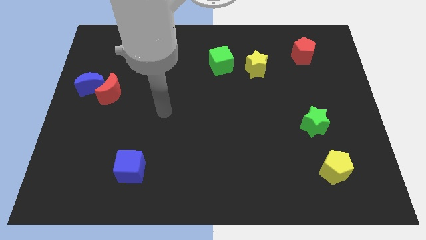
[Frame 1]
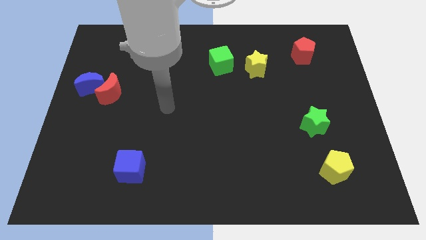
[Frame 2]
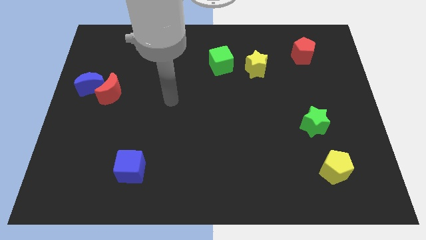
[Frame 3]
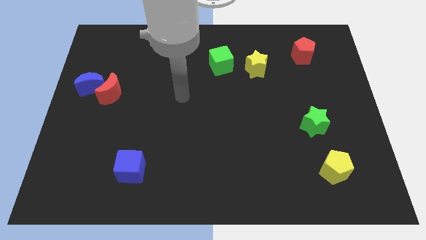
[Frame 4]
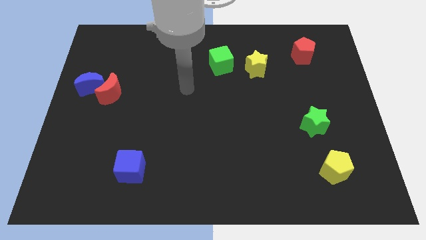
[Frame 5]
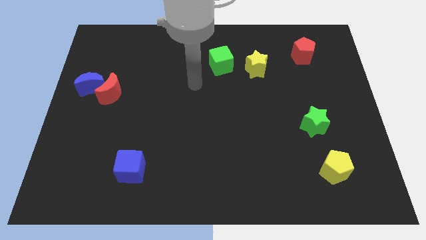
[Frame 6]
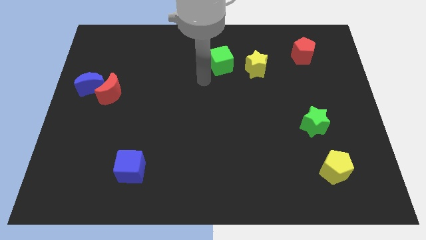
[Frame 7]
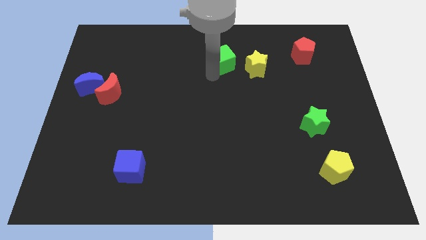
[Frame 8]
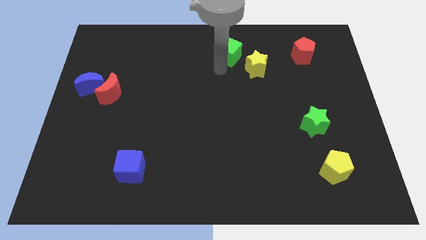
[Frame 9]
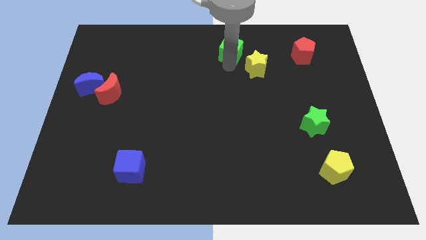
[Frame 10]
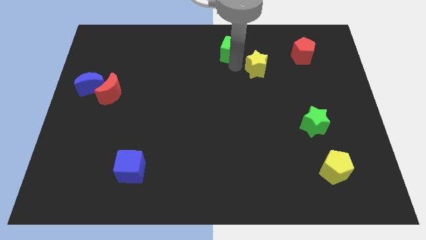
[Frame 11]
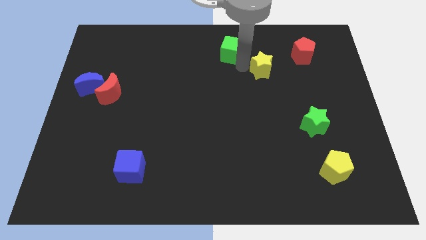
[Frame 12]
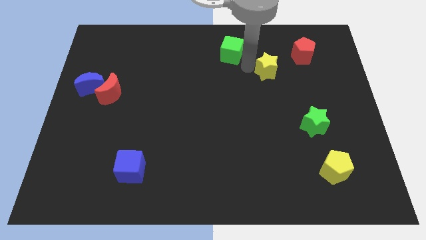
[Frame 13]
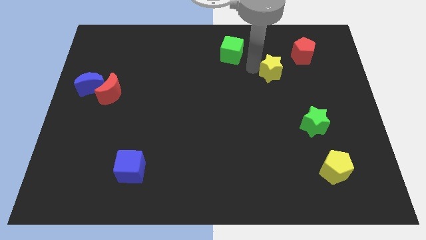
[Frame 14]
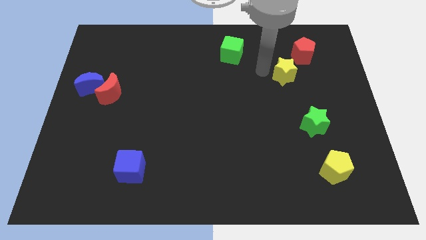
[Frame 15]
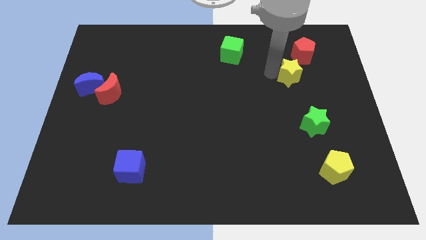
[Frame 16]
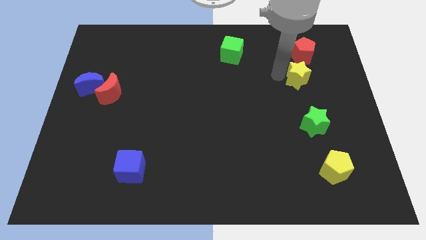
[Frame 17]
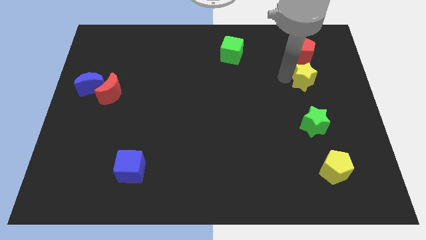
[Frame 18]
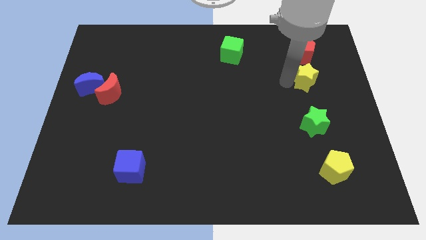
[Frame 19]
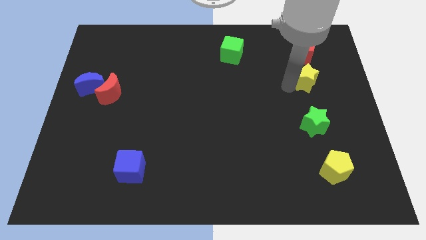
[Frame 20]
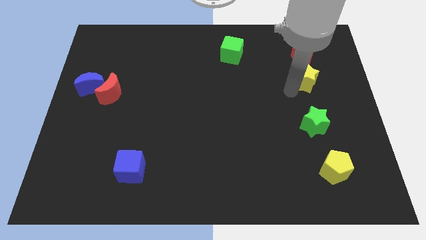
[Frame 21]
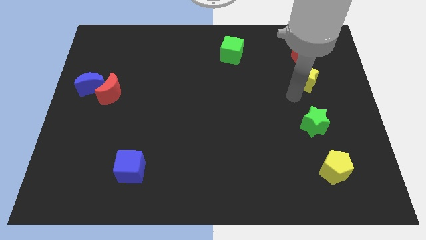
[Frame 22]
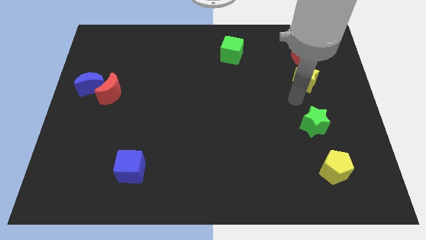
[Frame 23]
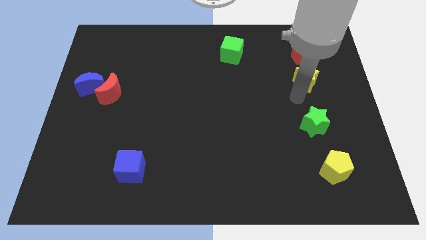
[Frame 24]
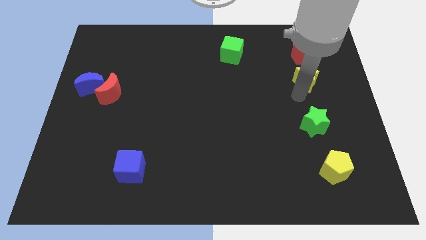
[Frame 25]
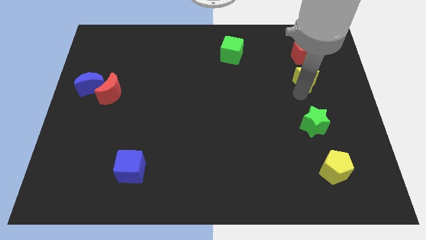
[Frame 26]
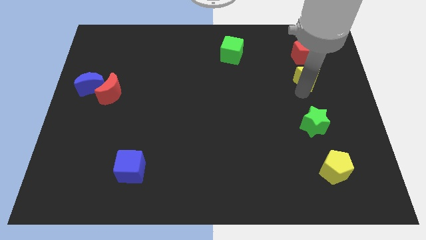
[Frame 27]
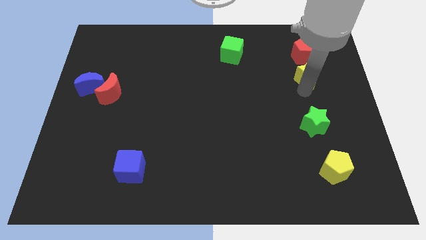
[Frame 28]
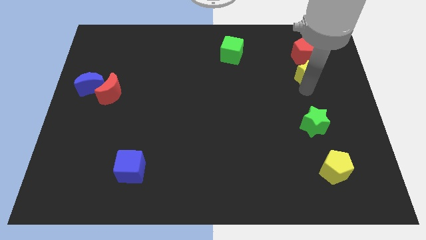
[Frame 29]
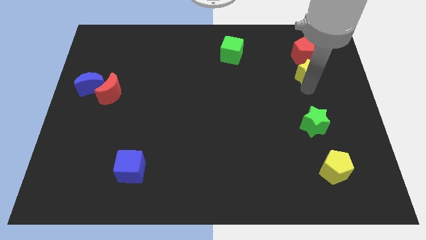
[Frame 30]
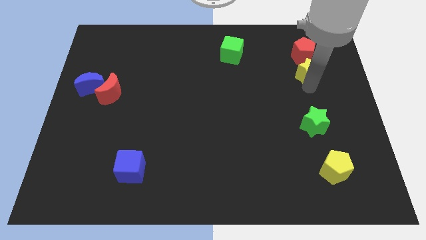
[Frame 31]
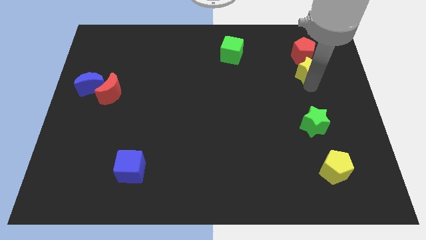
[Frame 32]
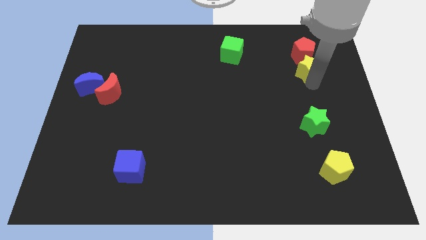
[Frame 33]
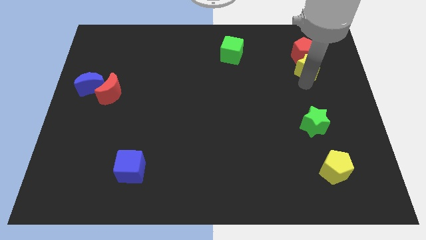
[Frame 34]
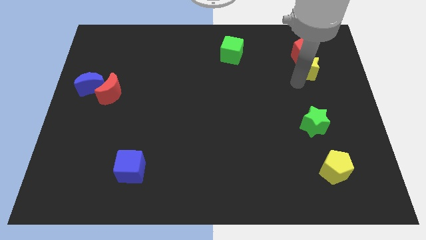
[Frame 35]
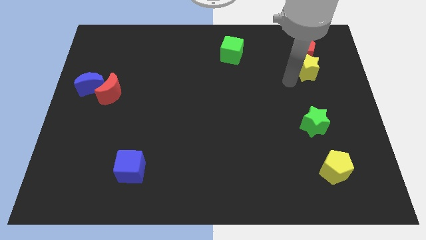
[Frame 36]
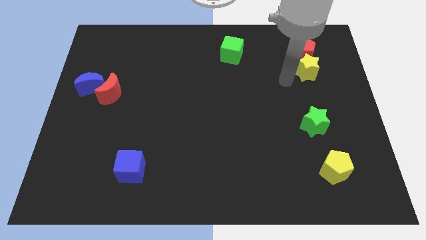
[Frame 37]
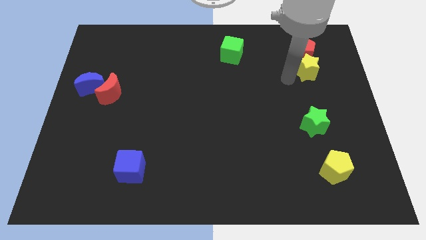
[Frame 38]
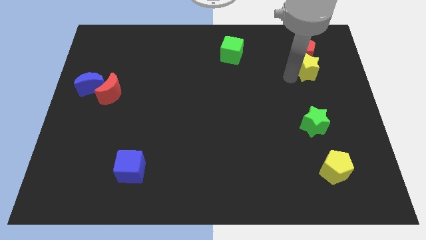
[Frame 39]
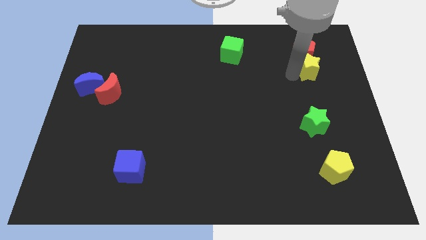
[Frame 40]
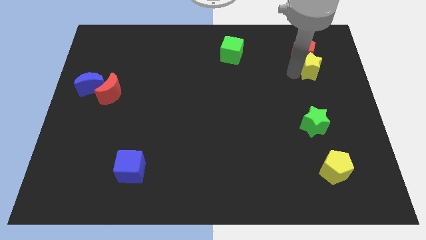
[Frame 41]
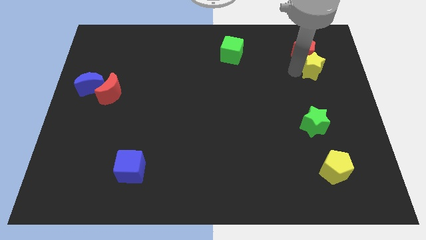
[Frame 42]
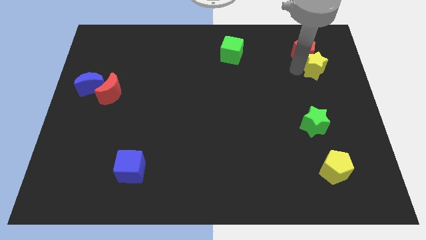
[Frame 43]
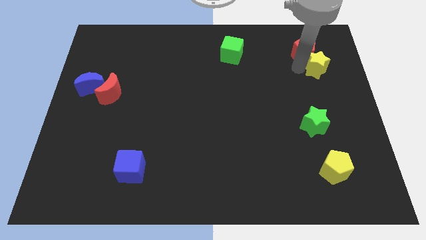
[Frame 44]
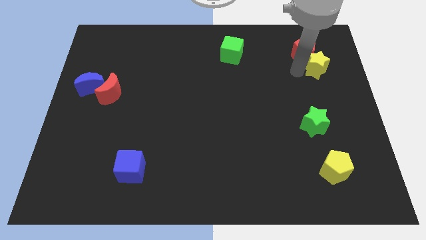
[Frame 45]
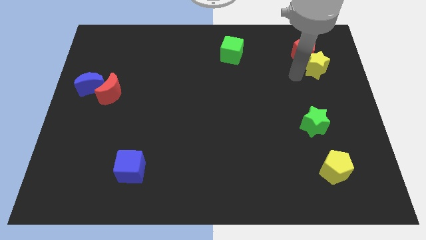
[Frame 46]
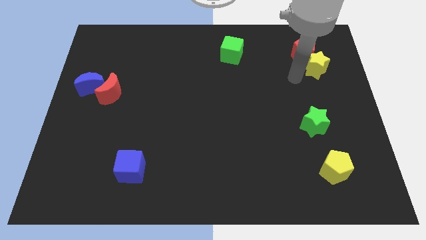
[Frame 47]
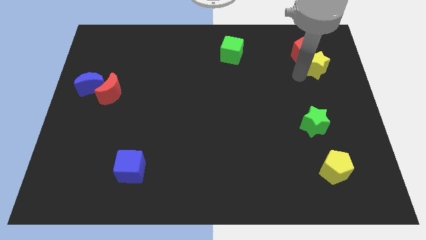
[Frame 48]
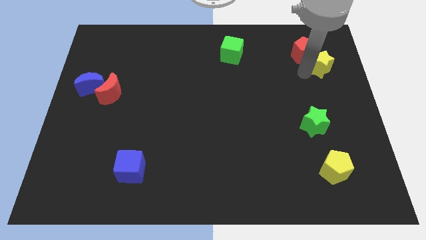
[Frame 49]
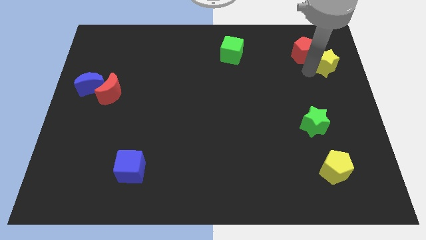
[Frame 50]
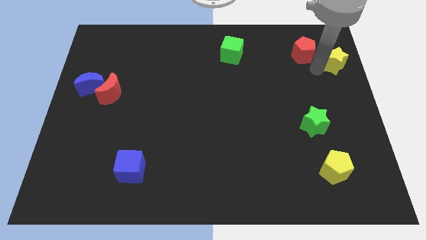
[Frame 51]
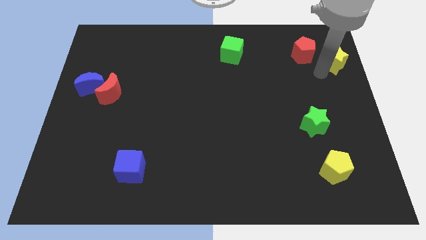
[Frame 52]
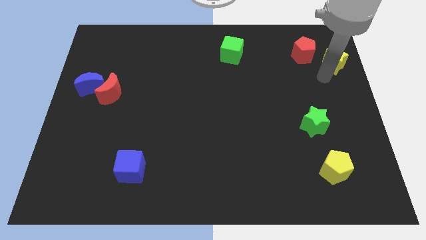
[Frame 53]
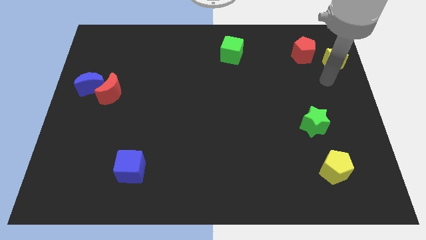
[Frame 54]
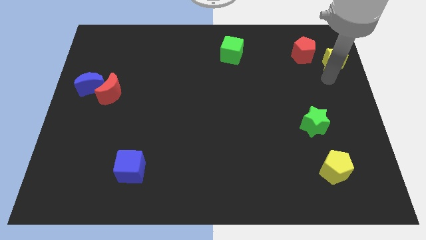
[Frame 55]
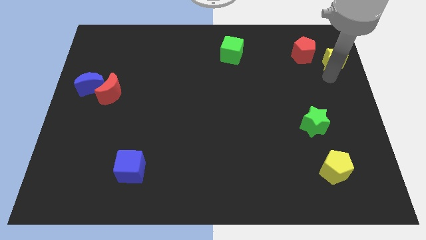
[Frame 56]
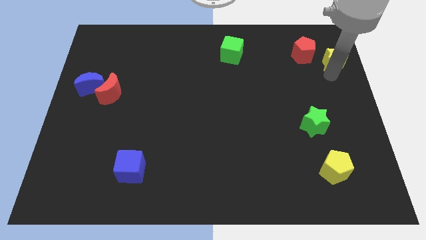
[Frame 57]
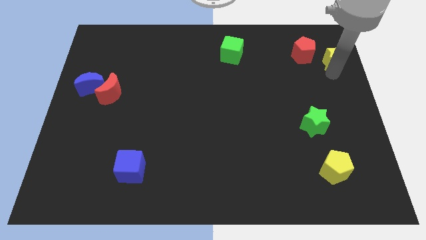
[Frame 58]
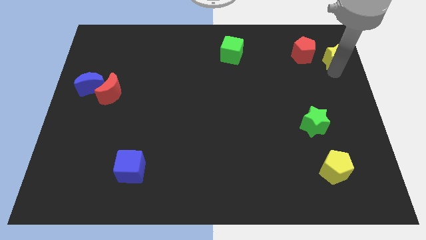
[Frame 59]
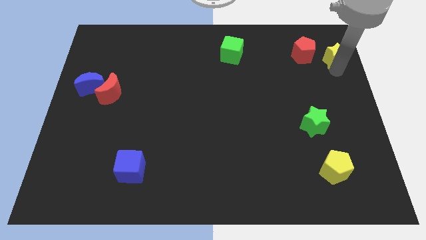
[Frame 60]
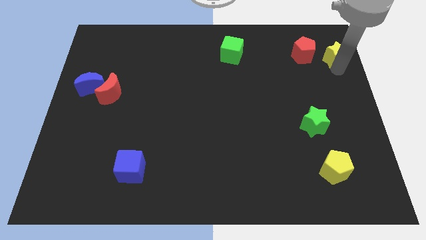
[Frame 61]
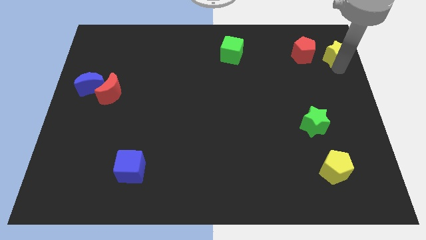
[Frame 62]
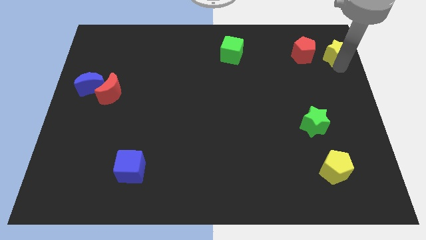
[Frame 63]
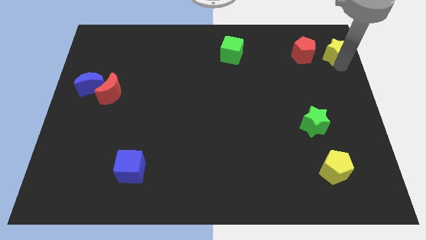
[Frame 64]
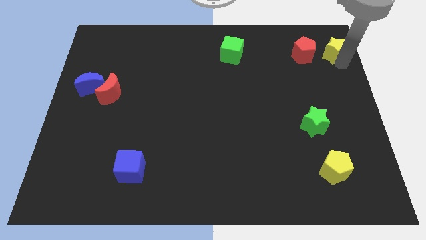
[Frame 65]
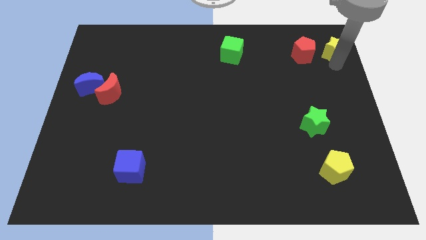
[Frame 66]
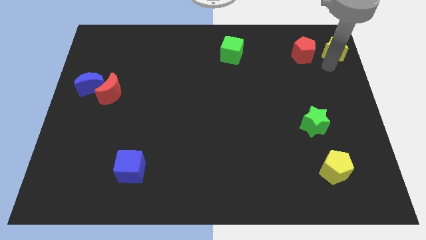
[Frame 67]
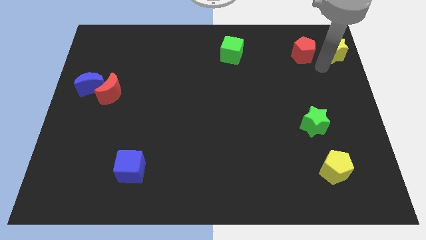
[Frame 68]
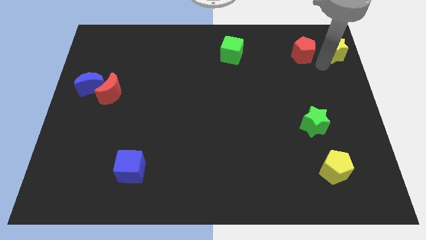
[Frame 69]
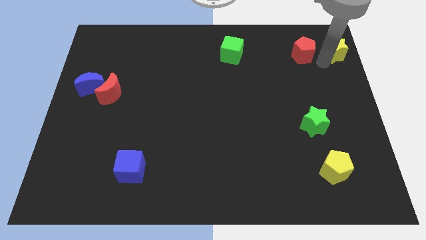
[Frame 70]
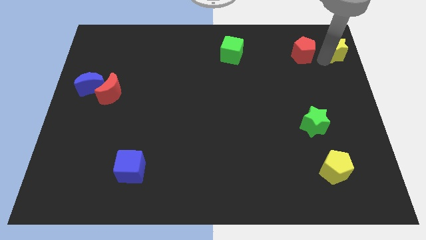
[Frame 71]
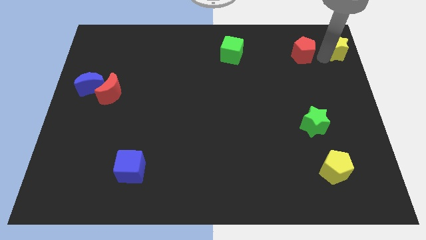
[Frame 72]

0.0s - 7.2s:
push the yellow star to the upper right corner
